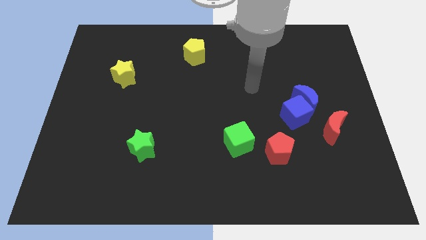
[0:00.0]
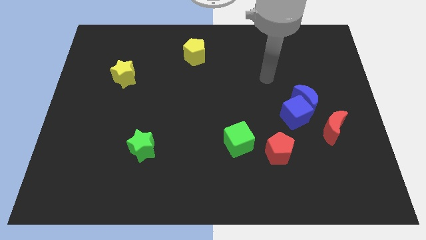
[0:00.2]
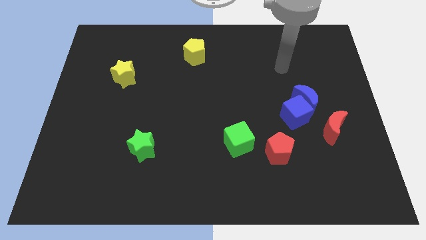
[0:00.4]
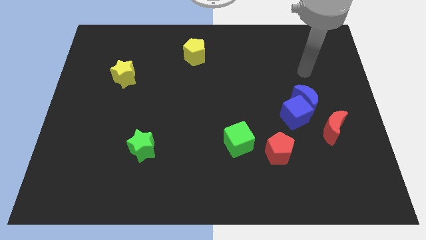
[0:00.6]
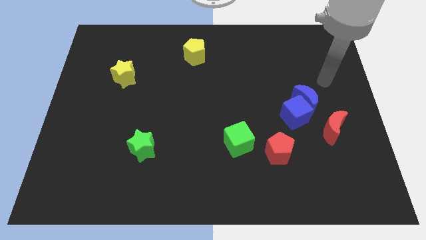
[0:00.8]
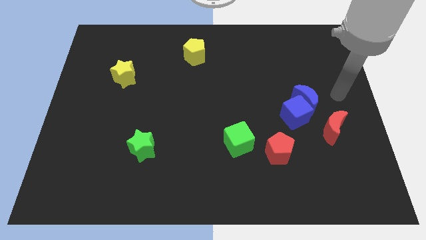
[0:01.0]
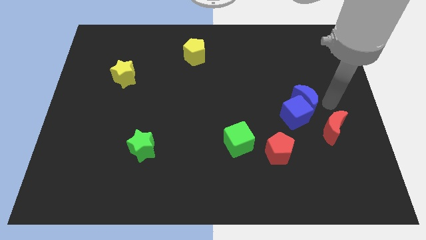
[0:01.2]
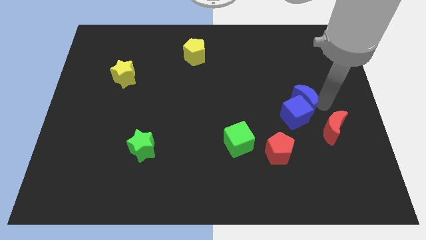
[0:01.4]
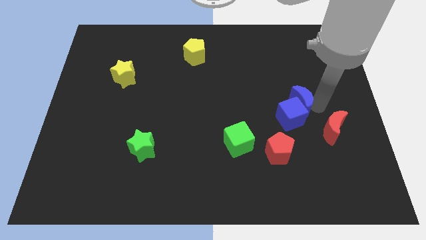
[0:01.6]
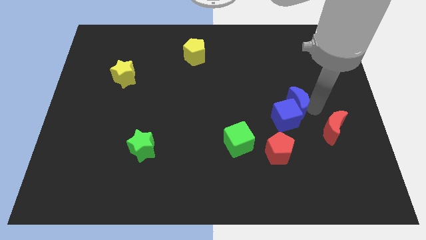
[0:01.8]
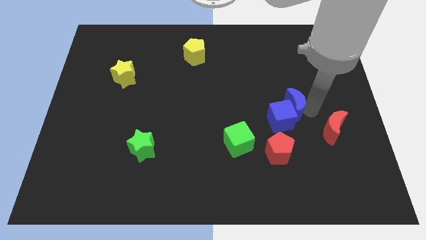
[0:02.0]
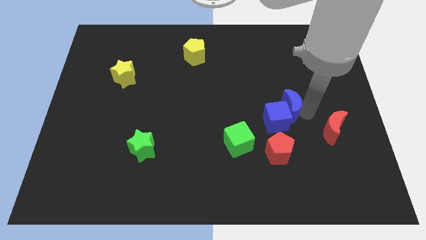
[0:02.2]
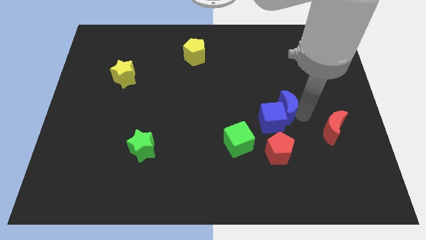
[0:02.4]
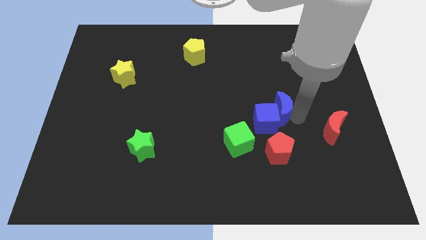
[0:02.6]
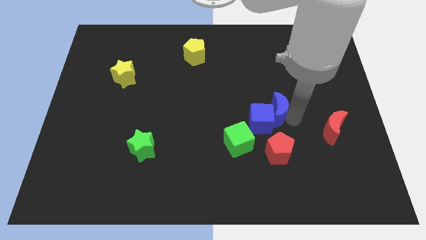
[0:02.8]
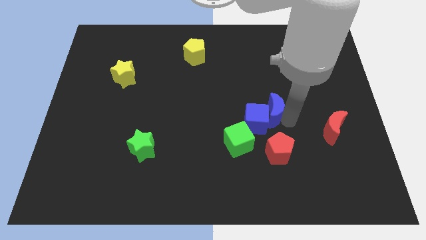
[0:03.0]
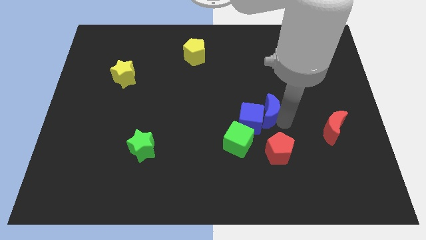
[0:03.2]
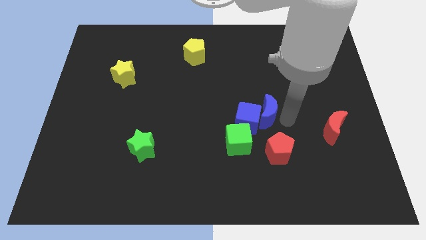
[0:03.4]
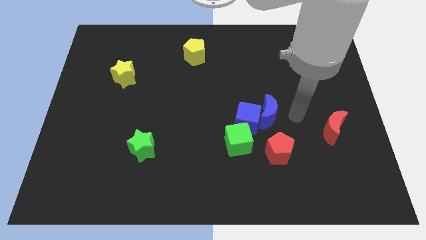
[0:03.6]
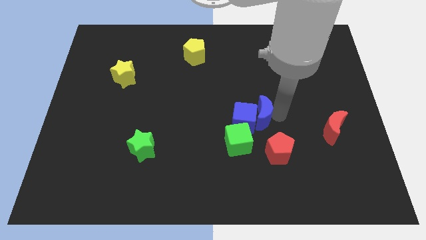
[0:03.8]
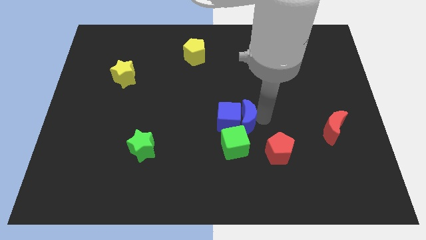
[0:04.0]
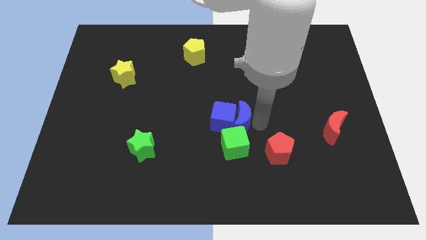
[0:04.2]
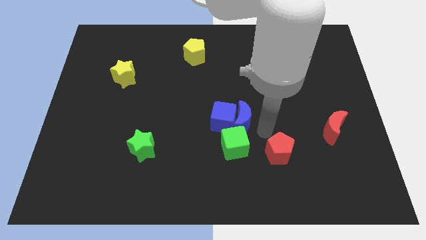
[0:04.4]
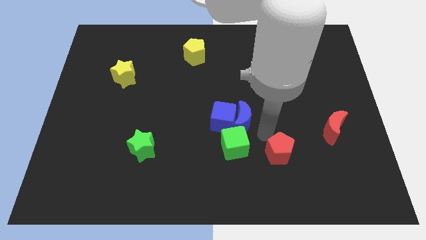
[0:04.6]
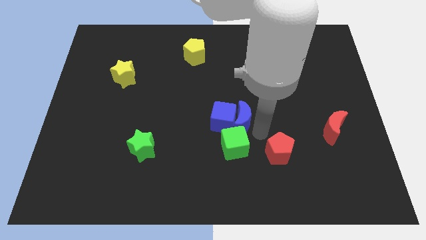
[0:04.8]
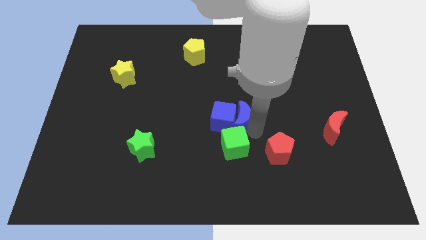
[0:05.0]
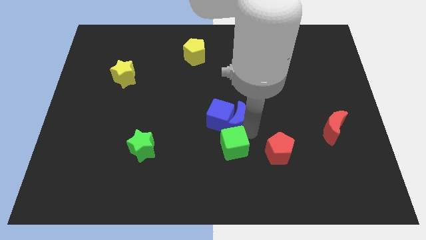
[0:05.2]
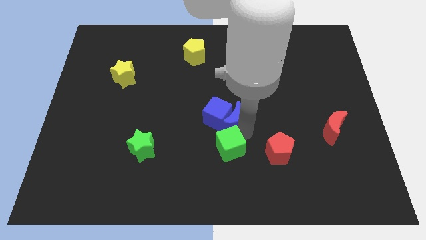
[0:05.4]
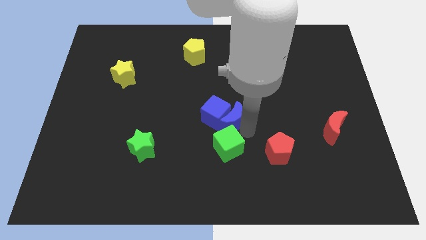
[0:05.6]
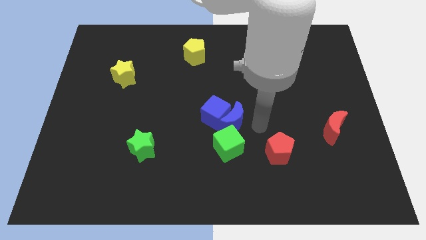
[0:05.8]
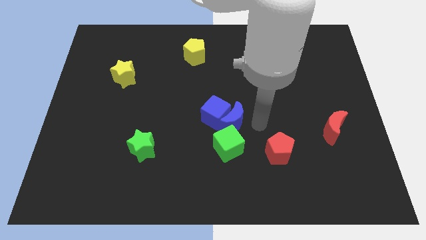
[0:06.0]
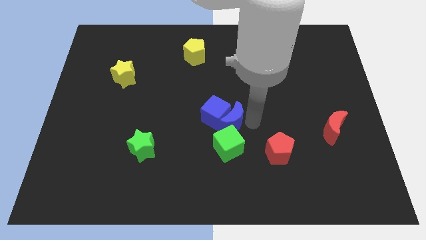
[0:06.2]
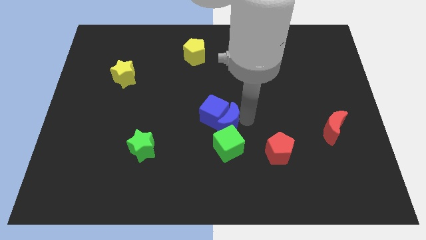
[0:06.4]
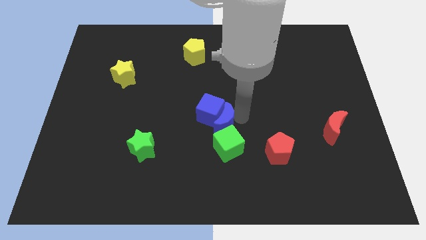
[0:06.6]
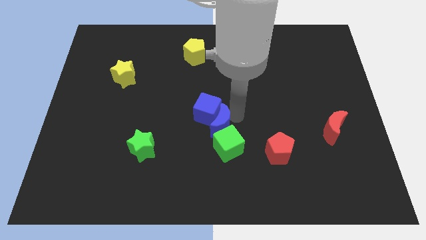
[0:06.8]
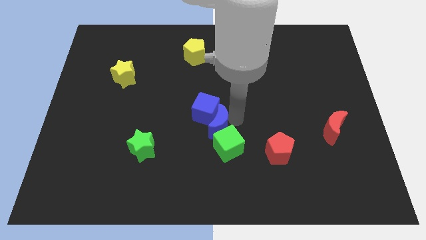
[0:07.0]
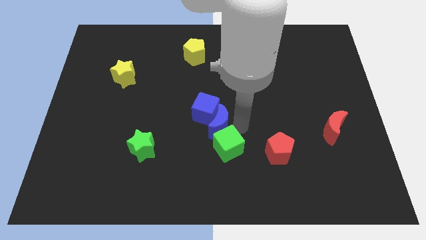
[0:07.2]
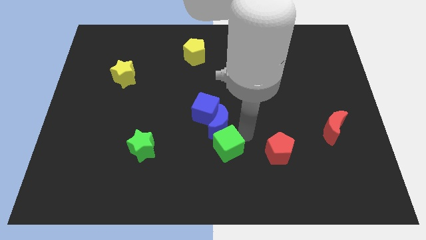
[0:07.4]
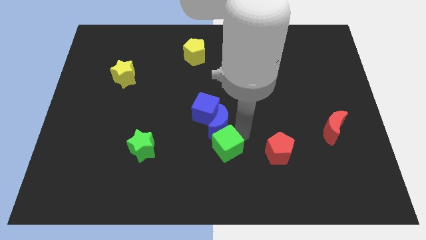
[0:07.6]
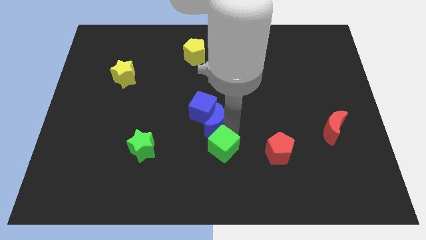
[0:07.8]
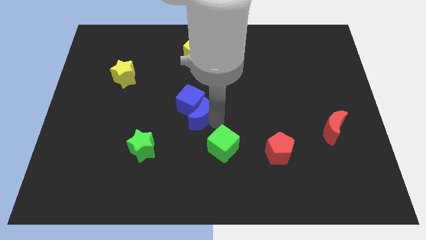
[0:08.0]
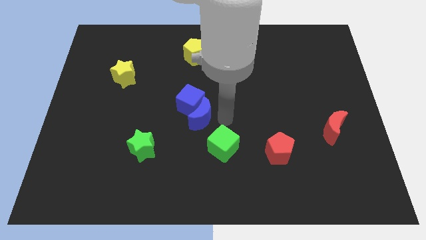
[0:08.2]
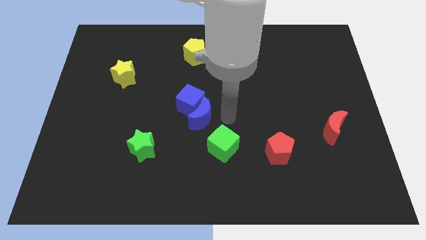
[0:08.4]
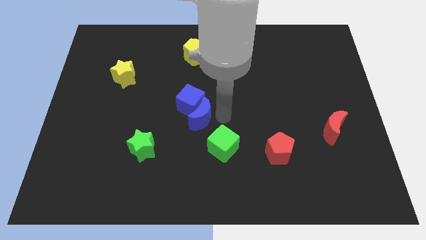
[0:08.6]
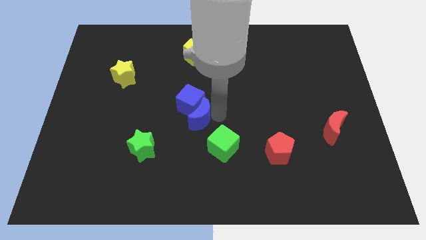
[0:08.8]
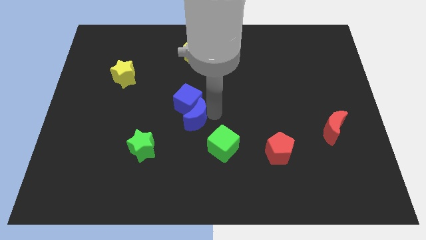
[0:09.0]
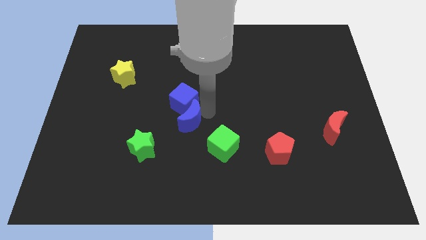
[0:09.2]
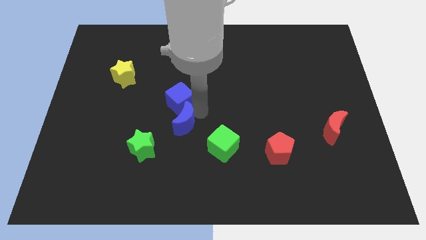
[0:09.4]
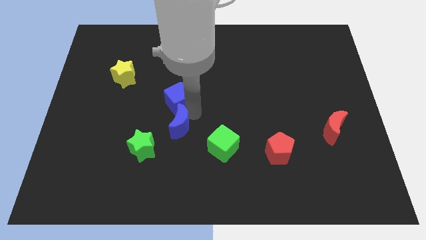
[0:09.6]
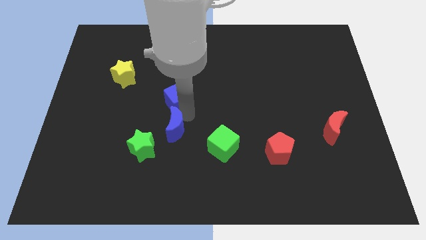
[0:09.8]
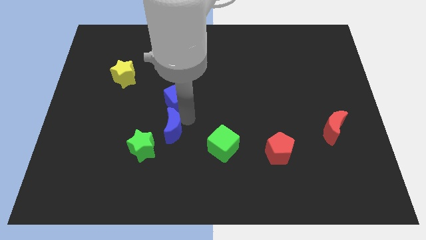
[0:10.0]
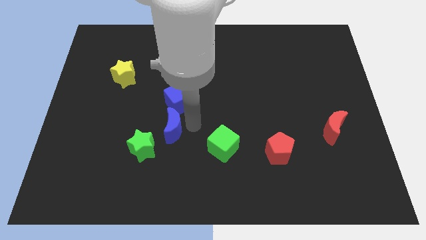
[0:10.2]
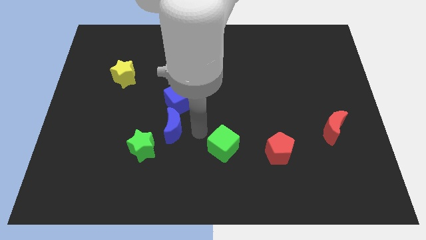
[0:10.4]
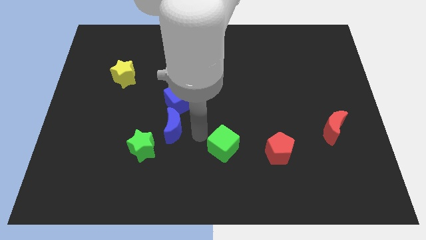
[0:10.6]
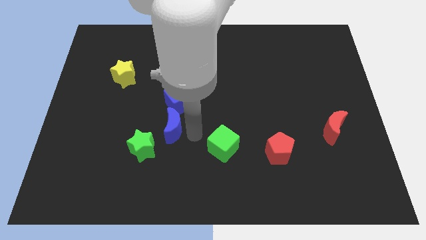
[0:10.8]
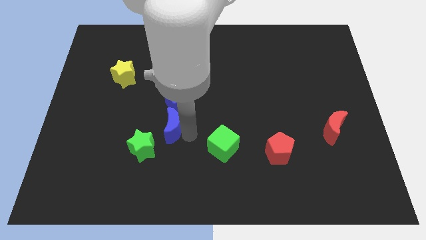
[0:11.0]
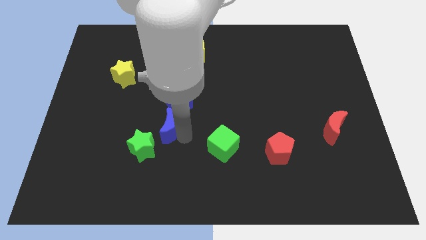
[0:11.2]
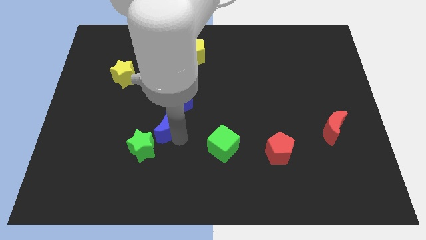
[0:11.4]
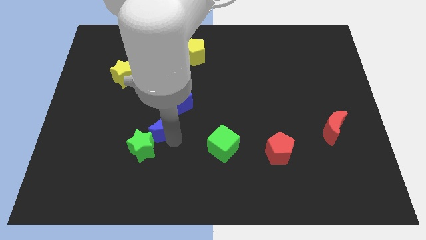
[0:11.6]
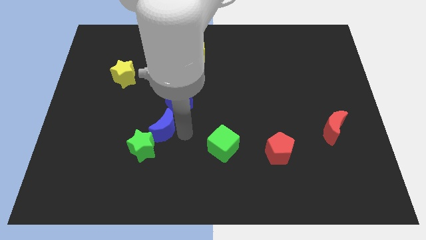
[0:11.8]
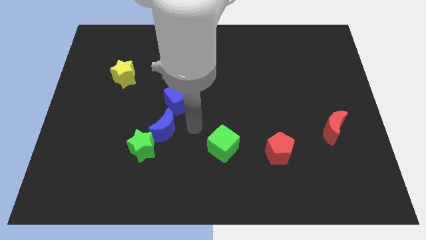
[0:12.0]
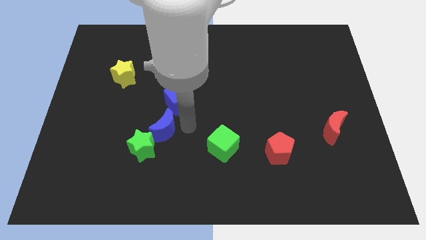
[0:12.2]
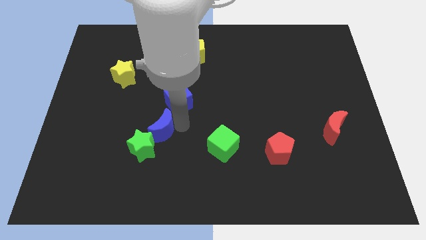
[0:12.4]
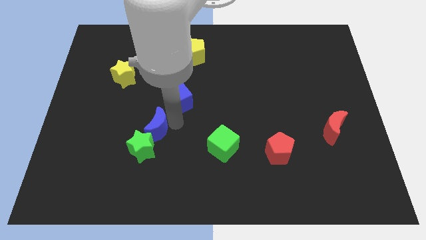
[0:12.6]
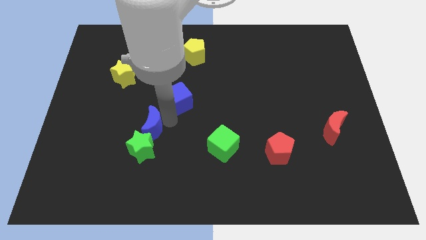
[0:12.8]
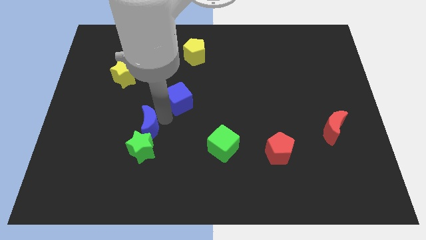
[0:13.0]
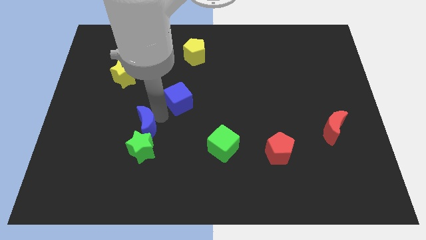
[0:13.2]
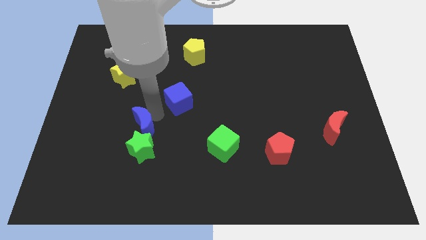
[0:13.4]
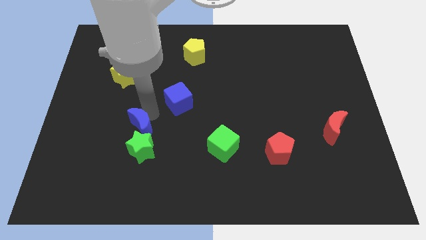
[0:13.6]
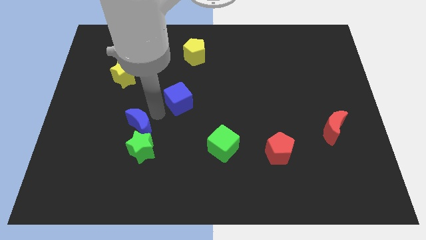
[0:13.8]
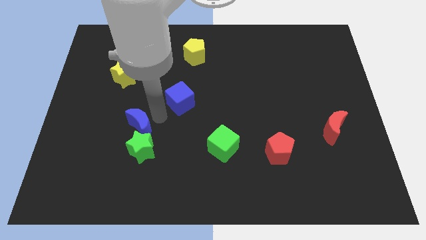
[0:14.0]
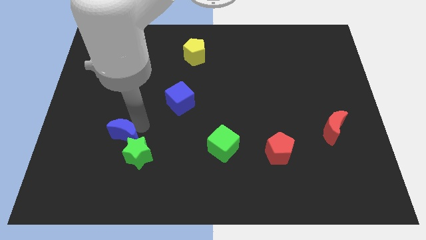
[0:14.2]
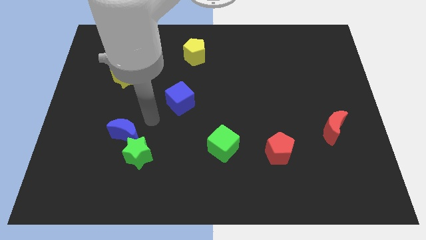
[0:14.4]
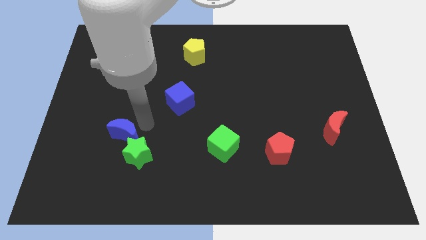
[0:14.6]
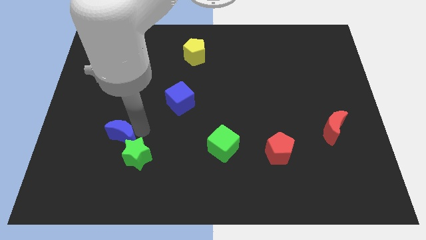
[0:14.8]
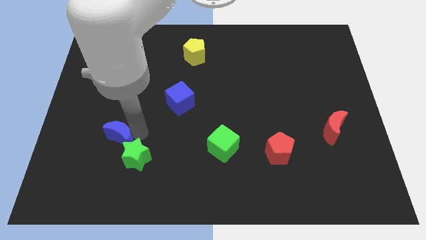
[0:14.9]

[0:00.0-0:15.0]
put the blue moon just left of the green star
